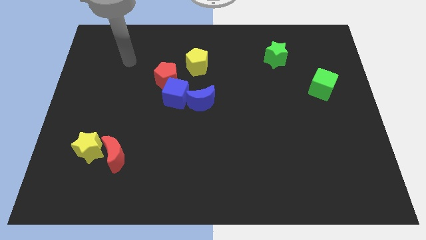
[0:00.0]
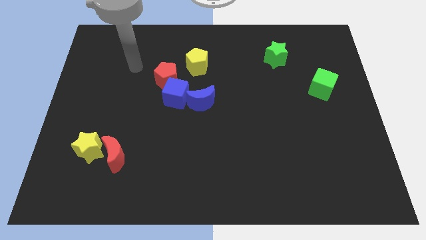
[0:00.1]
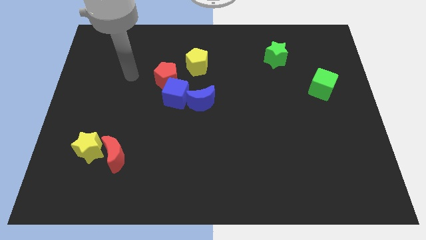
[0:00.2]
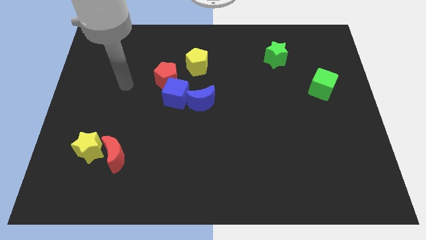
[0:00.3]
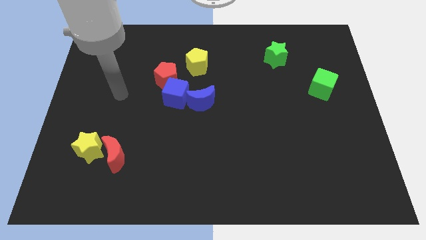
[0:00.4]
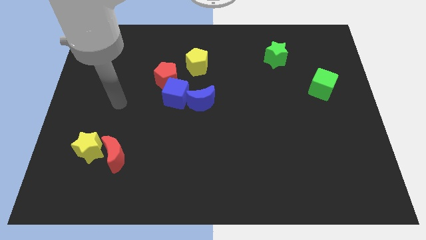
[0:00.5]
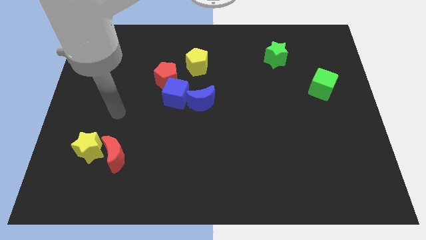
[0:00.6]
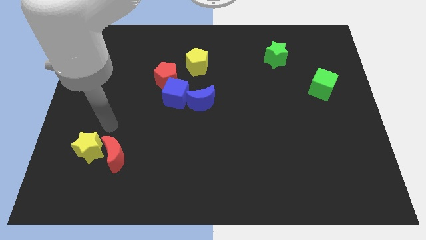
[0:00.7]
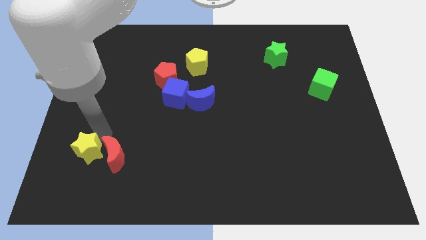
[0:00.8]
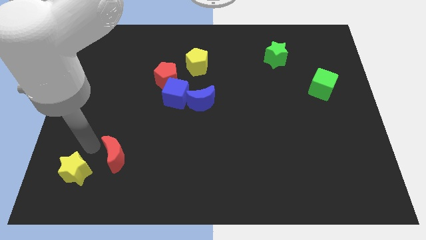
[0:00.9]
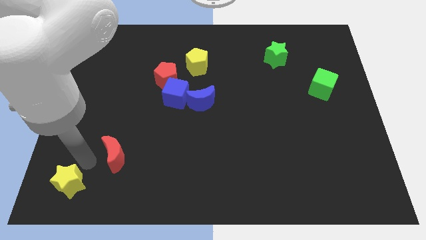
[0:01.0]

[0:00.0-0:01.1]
separate the red moon from the yellow star

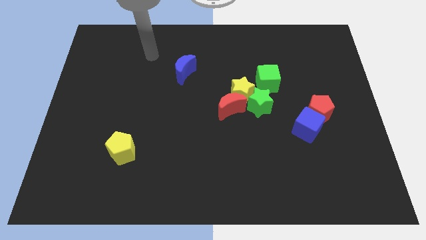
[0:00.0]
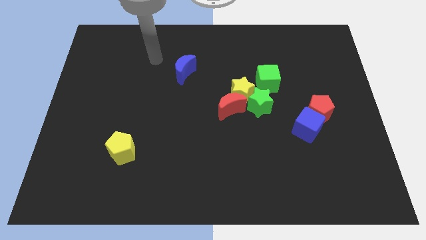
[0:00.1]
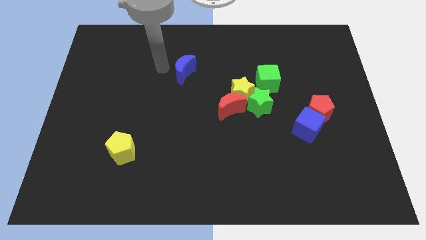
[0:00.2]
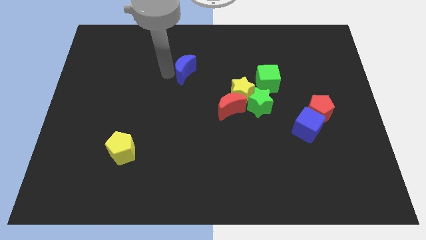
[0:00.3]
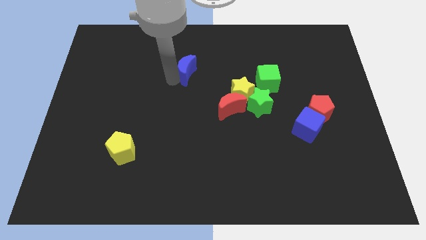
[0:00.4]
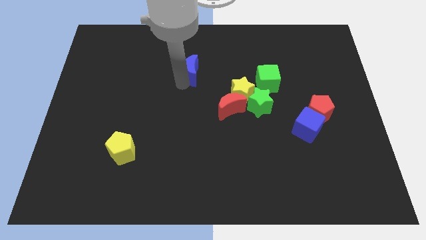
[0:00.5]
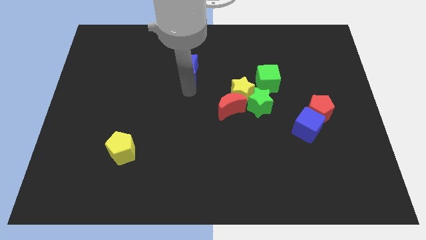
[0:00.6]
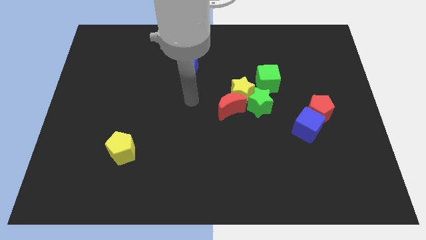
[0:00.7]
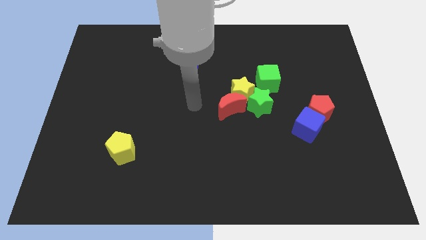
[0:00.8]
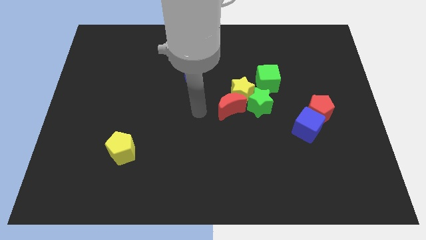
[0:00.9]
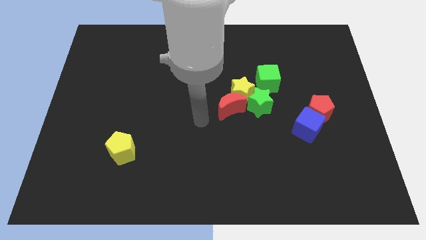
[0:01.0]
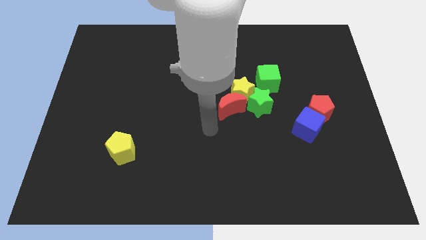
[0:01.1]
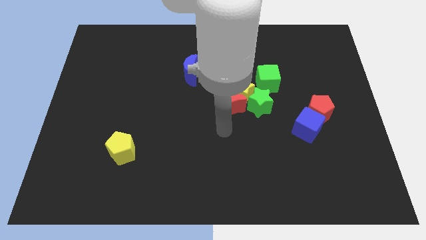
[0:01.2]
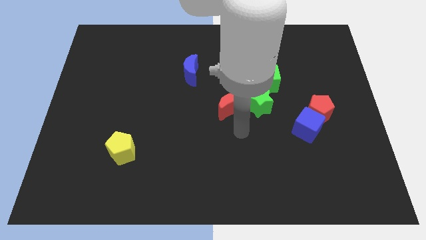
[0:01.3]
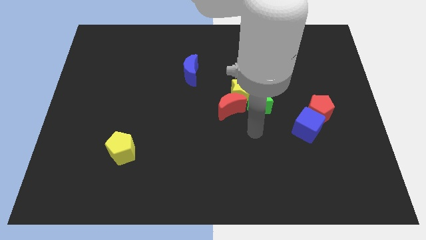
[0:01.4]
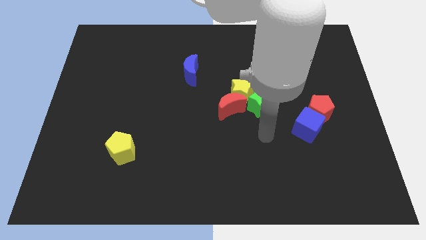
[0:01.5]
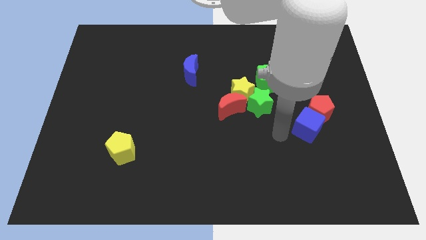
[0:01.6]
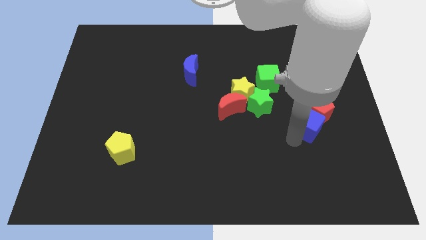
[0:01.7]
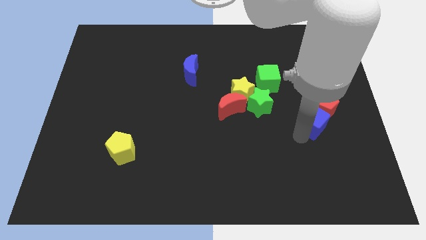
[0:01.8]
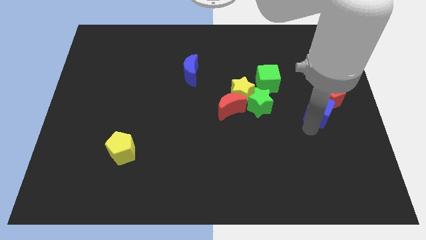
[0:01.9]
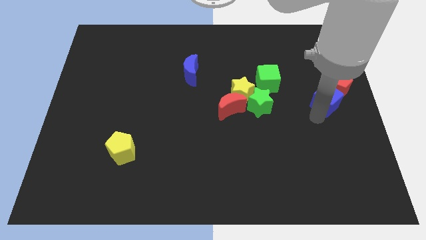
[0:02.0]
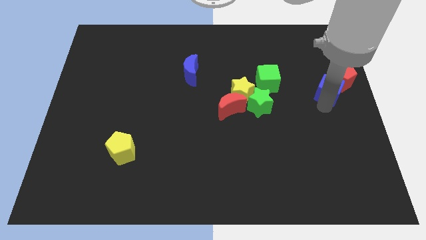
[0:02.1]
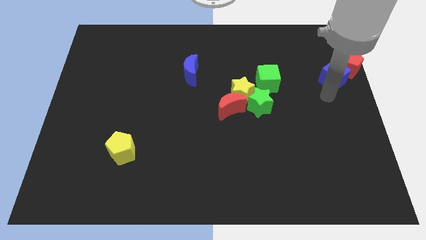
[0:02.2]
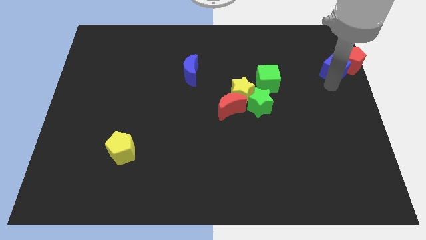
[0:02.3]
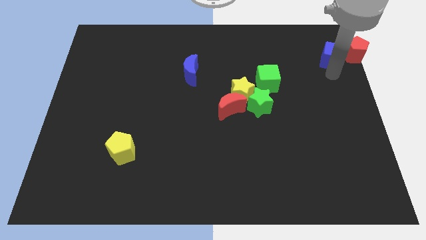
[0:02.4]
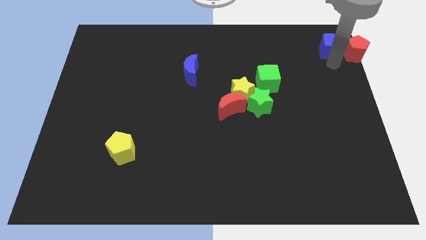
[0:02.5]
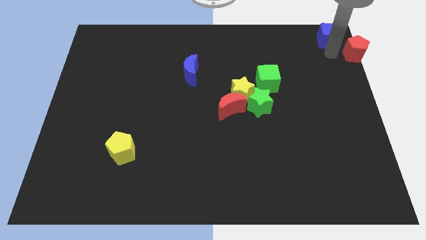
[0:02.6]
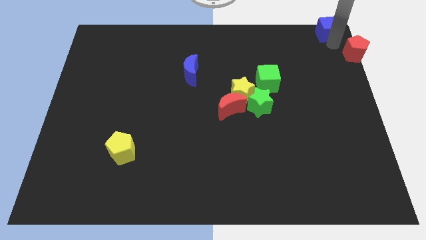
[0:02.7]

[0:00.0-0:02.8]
move the red pentagon away from the blue cube

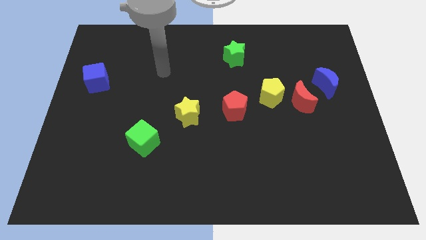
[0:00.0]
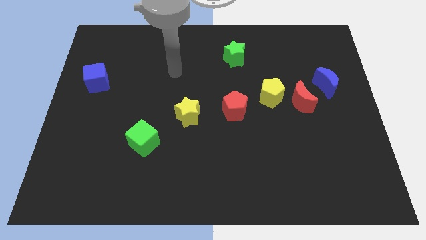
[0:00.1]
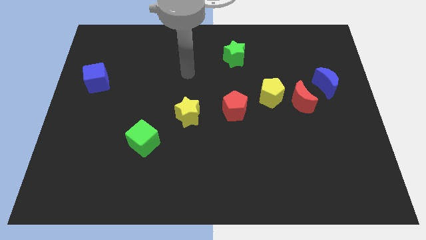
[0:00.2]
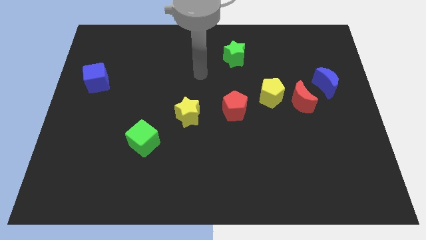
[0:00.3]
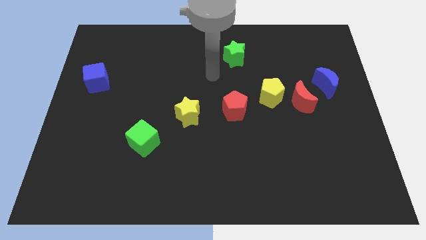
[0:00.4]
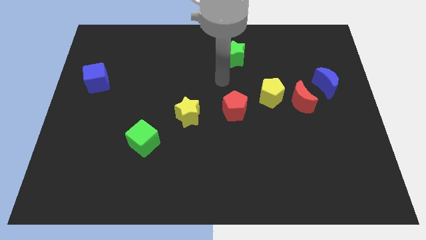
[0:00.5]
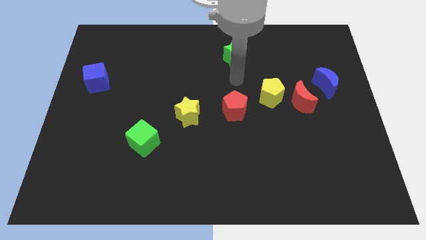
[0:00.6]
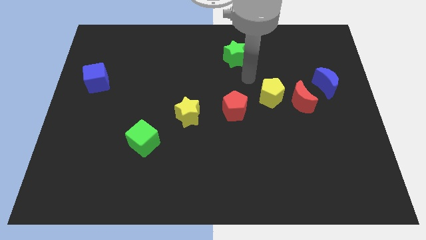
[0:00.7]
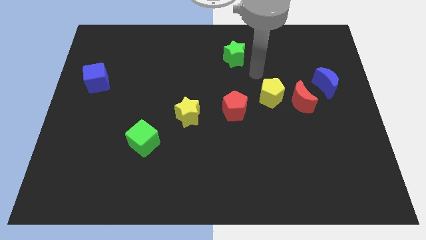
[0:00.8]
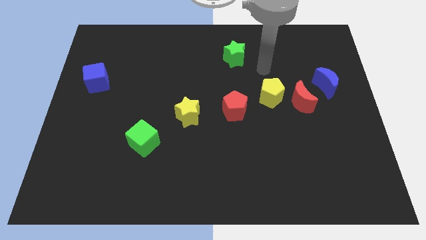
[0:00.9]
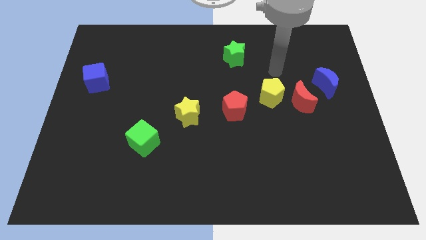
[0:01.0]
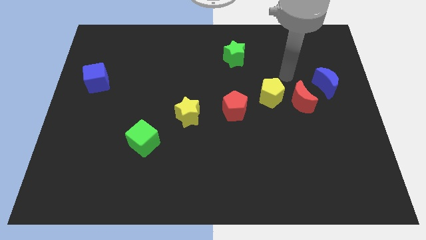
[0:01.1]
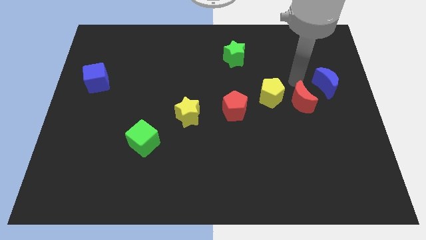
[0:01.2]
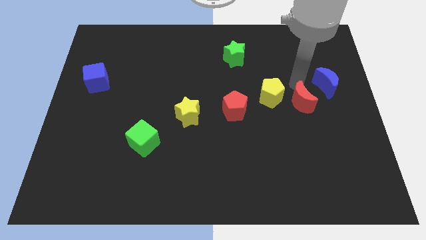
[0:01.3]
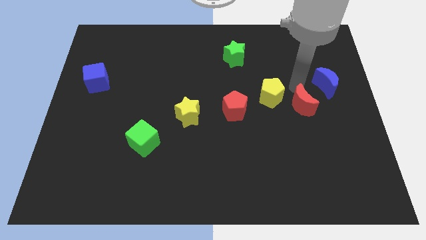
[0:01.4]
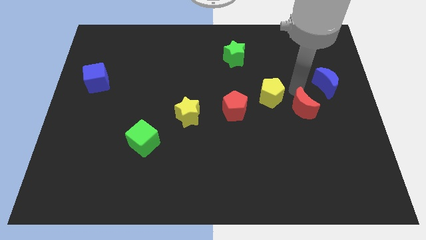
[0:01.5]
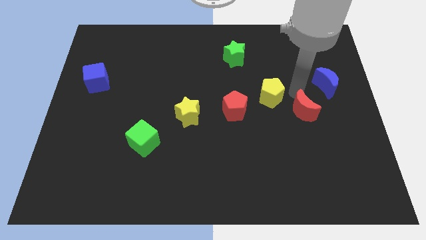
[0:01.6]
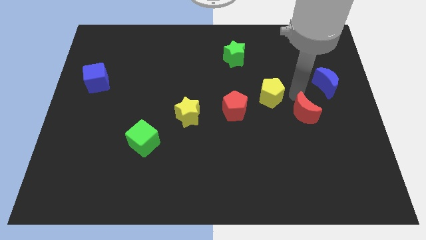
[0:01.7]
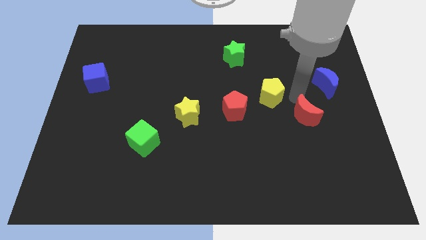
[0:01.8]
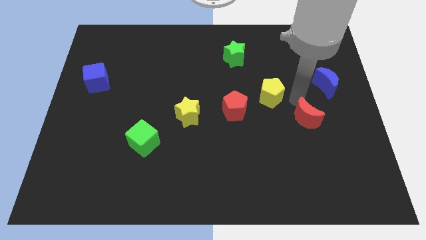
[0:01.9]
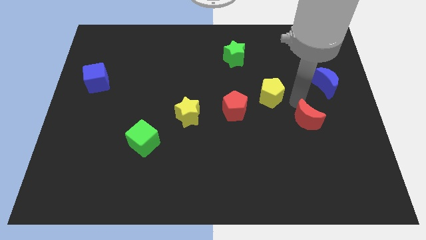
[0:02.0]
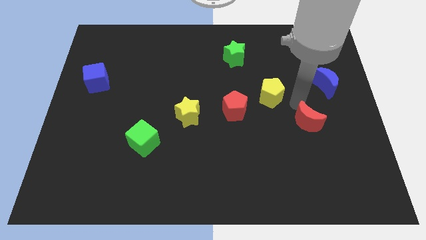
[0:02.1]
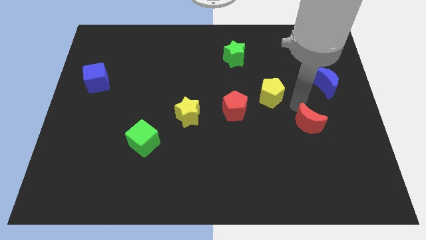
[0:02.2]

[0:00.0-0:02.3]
pull the red moon apart from the yellow pentagon and blue moon

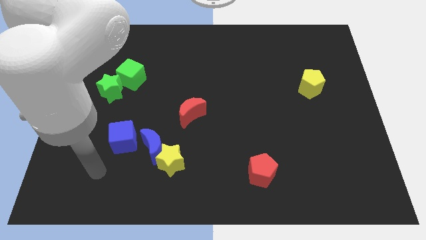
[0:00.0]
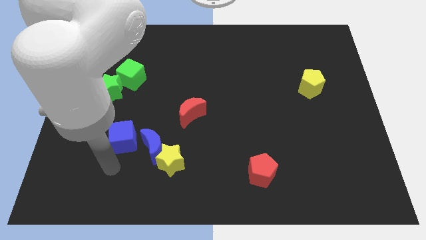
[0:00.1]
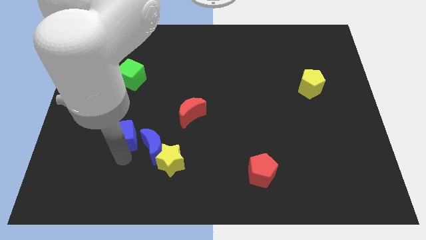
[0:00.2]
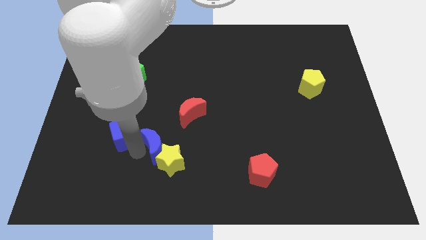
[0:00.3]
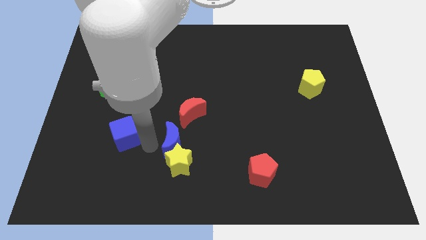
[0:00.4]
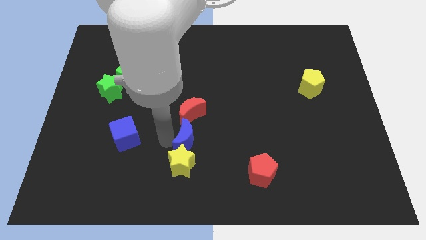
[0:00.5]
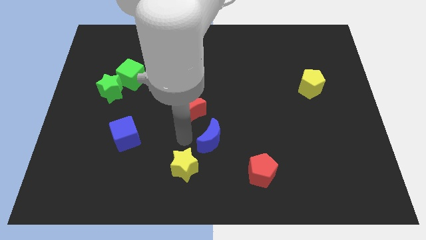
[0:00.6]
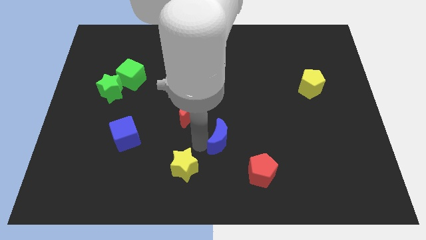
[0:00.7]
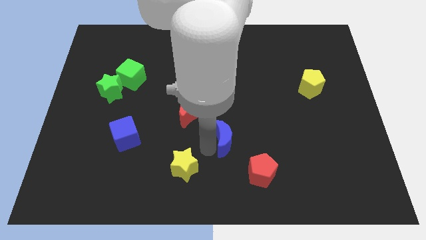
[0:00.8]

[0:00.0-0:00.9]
move the yellow star away from the blue moon

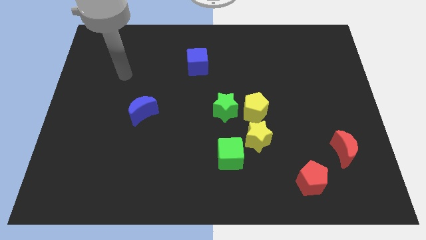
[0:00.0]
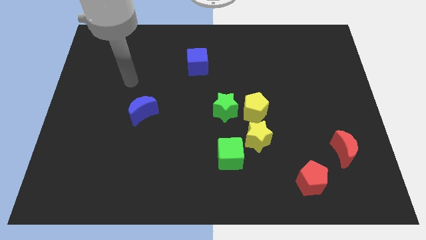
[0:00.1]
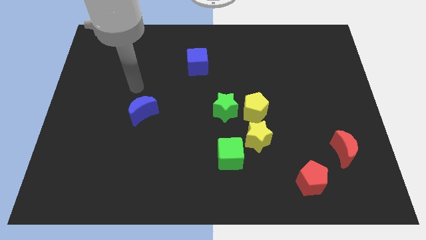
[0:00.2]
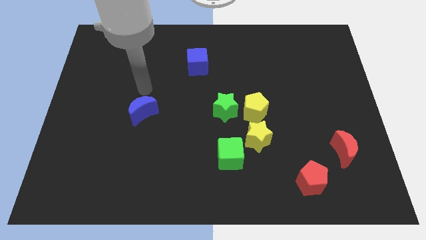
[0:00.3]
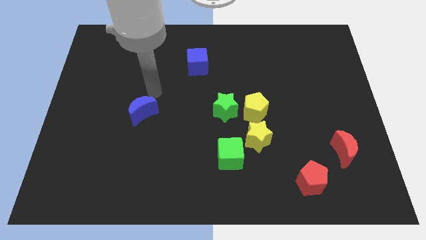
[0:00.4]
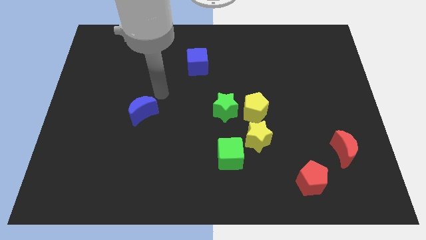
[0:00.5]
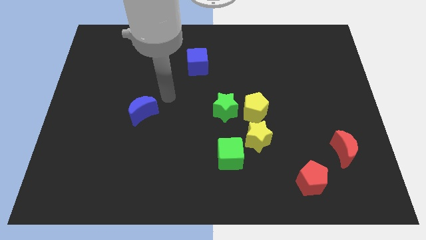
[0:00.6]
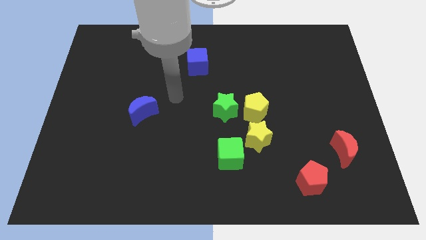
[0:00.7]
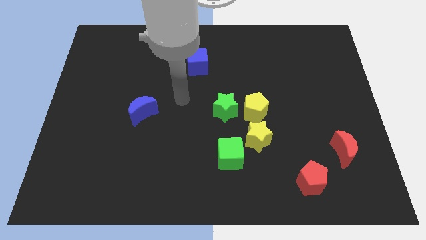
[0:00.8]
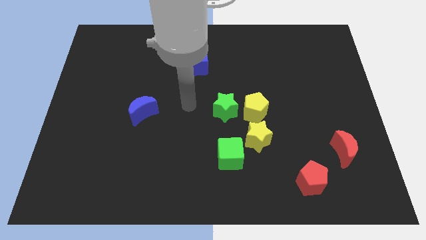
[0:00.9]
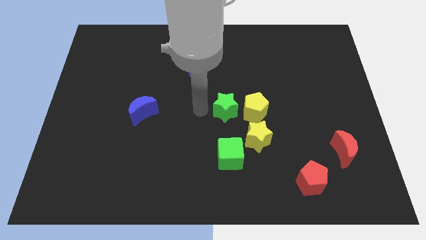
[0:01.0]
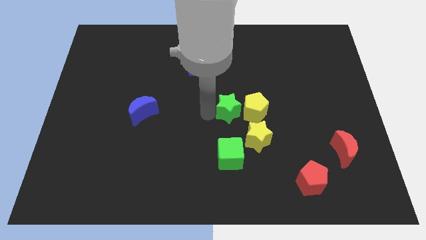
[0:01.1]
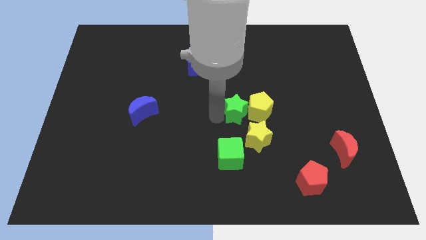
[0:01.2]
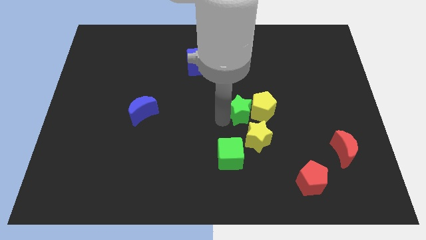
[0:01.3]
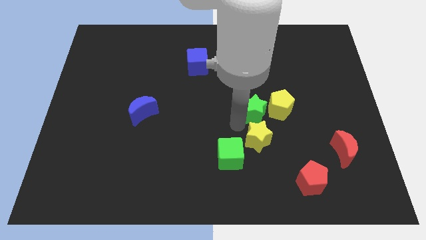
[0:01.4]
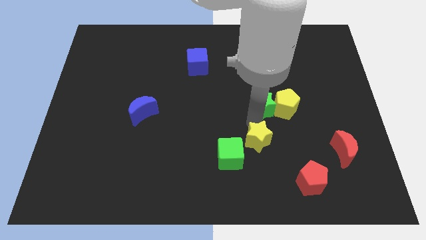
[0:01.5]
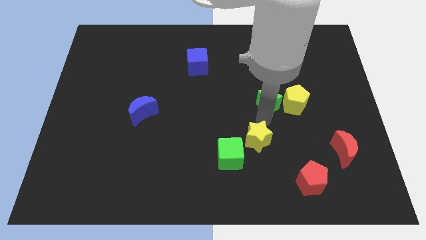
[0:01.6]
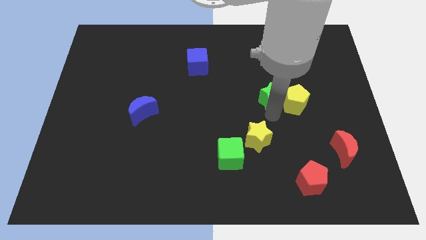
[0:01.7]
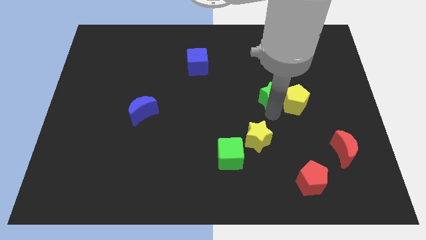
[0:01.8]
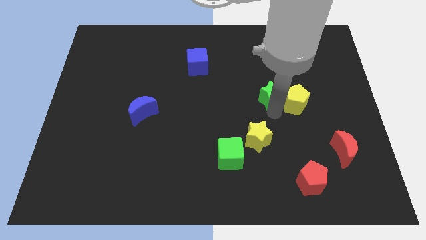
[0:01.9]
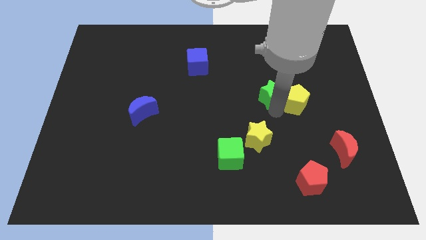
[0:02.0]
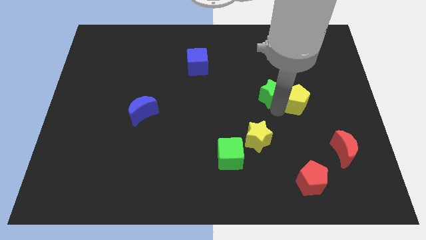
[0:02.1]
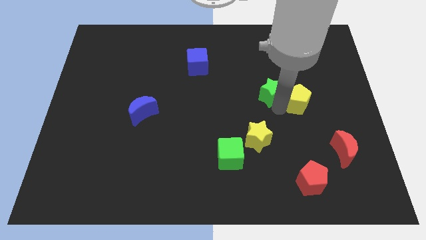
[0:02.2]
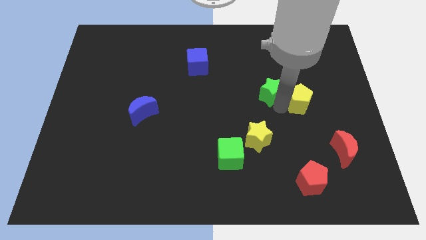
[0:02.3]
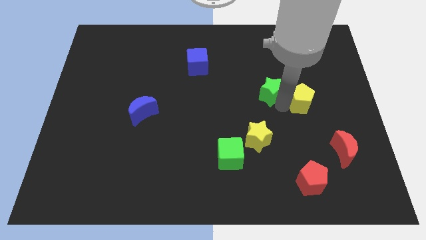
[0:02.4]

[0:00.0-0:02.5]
pull the yellow pentagon apart from the green star and yellow star
